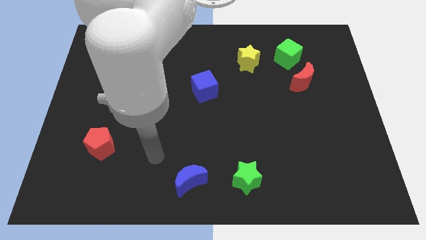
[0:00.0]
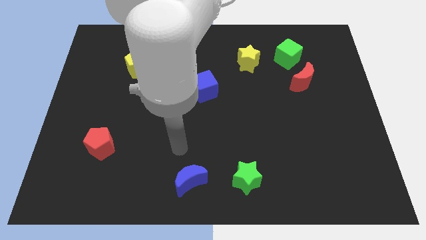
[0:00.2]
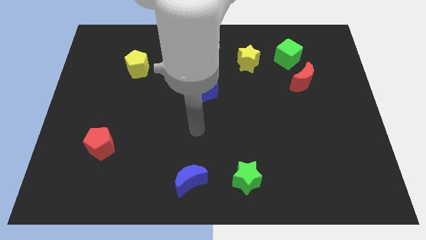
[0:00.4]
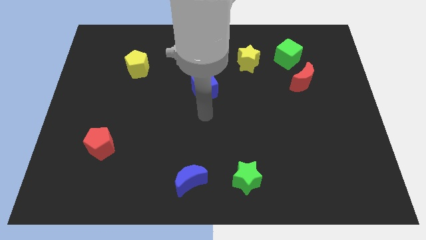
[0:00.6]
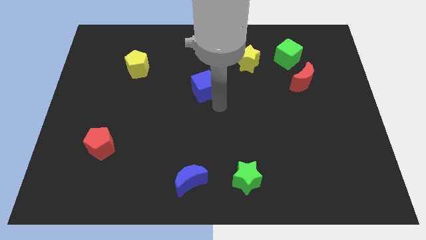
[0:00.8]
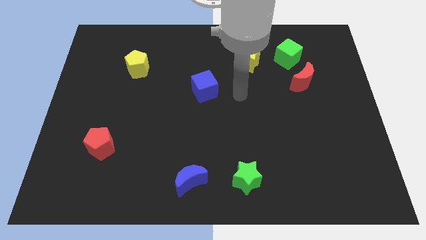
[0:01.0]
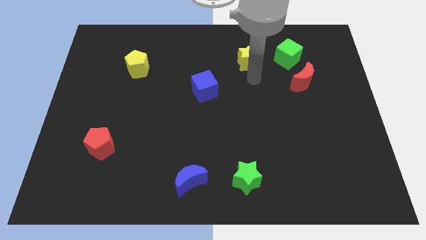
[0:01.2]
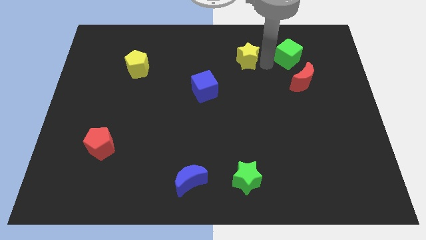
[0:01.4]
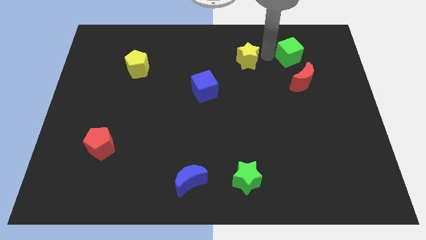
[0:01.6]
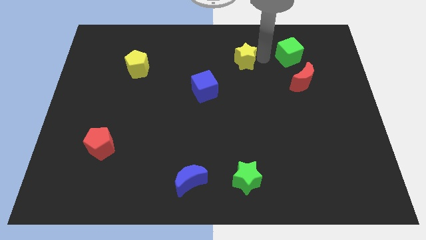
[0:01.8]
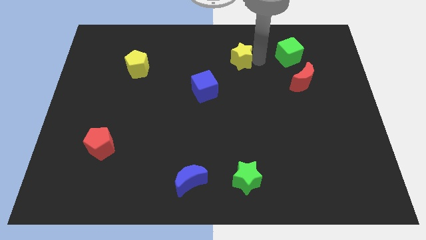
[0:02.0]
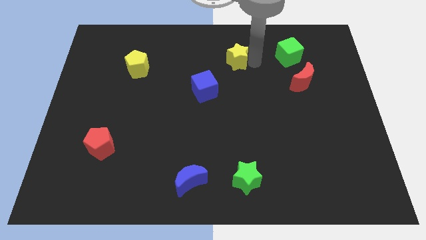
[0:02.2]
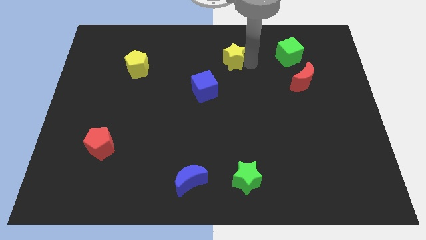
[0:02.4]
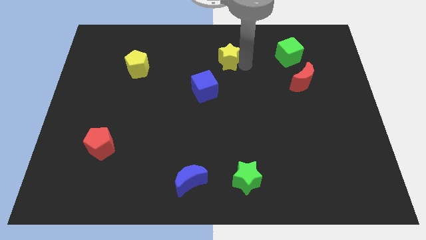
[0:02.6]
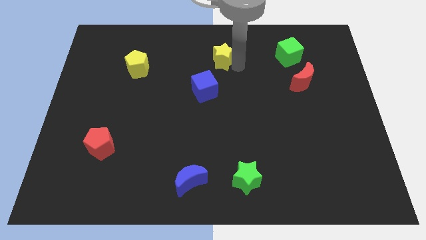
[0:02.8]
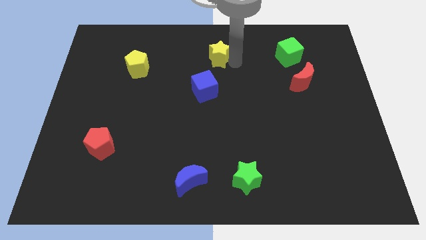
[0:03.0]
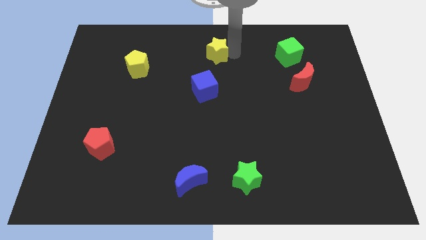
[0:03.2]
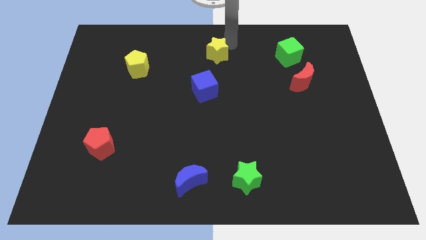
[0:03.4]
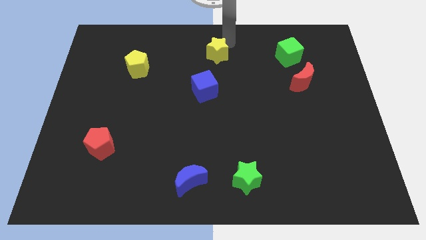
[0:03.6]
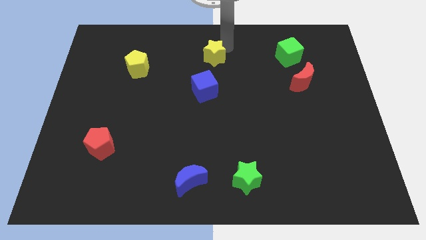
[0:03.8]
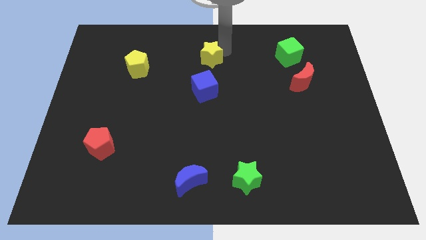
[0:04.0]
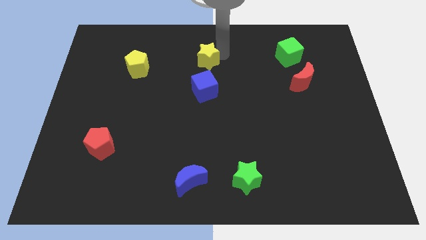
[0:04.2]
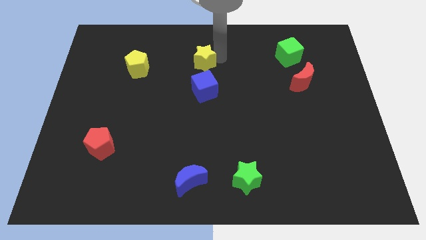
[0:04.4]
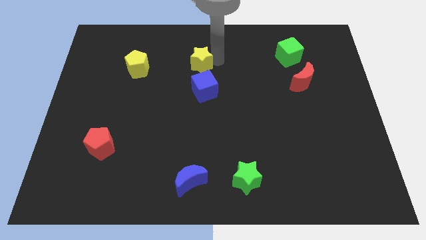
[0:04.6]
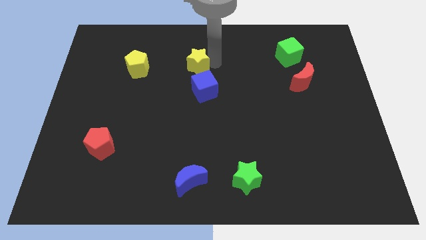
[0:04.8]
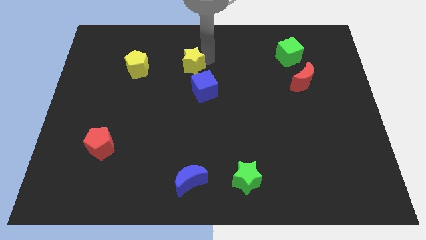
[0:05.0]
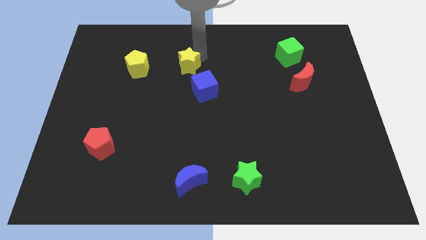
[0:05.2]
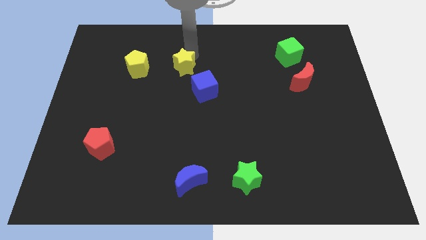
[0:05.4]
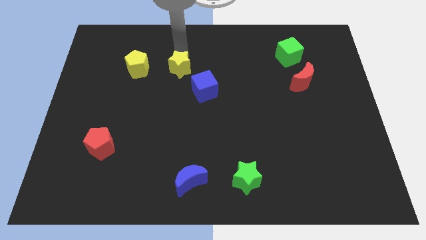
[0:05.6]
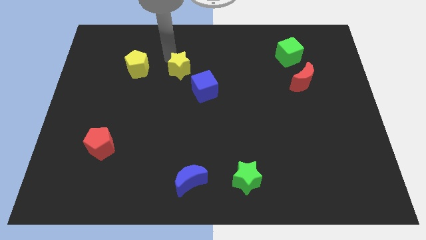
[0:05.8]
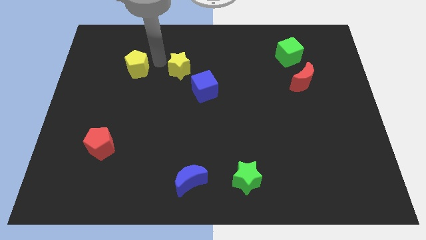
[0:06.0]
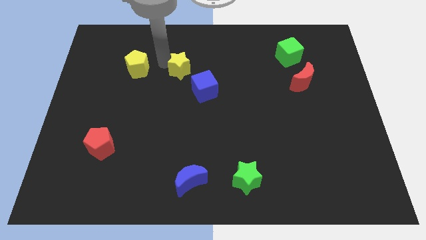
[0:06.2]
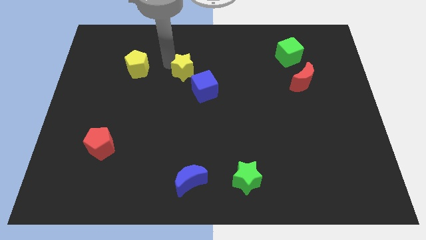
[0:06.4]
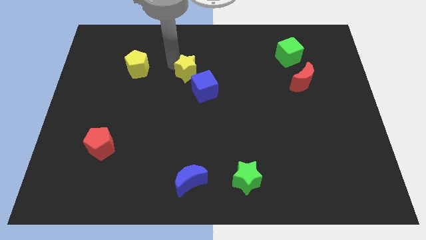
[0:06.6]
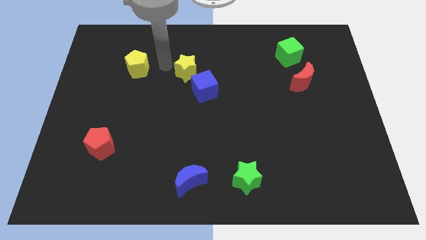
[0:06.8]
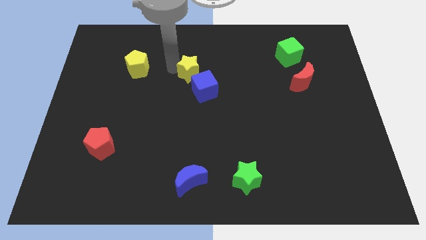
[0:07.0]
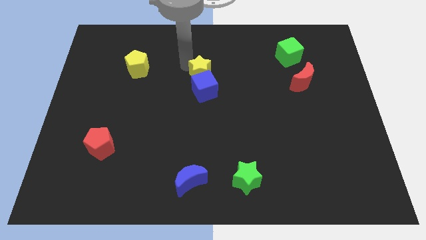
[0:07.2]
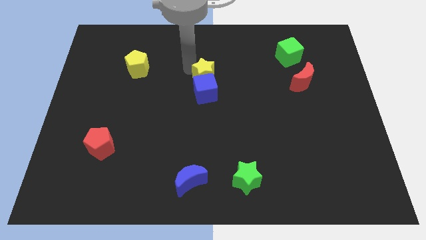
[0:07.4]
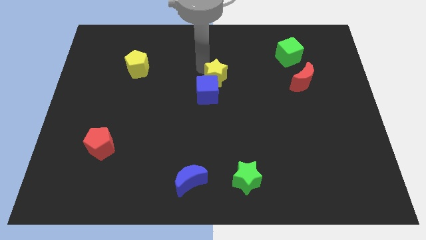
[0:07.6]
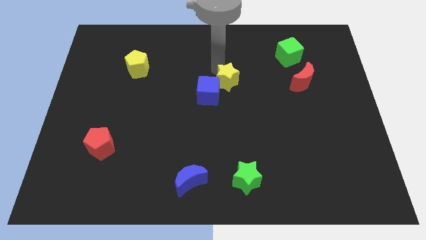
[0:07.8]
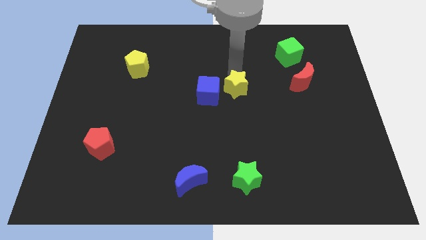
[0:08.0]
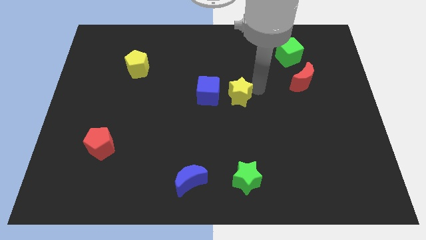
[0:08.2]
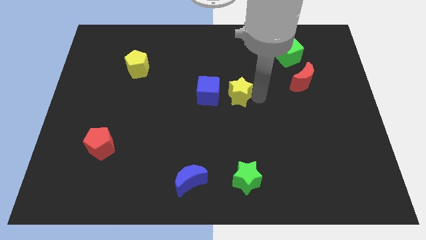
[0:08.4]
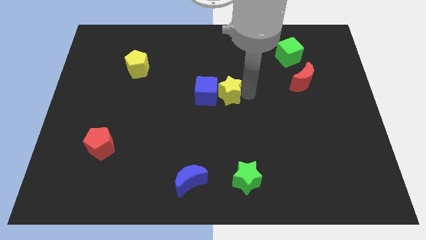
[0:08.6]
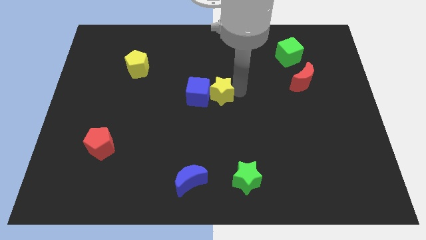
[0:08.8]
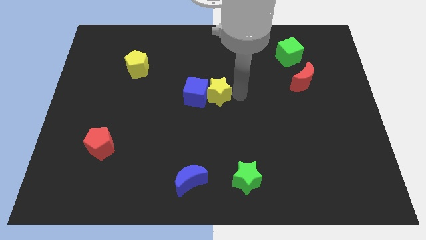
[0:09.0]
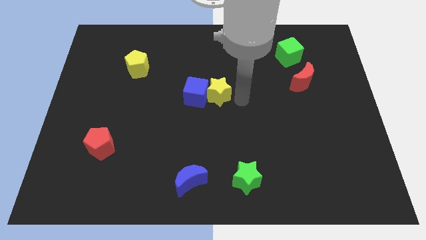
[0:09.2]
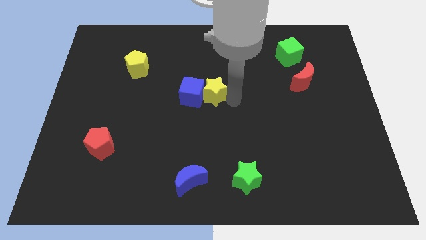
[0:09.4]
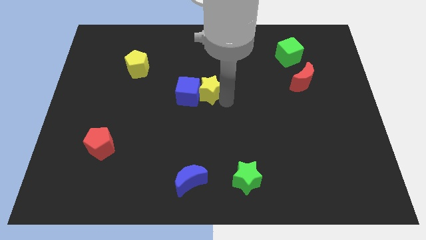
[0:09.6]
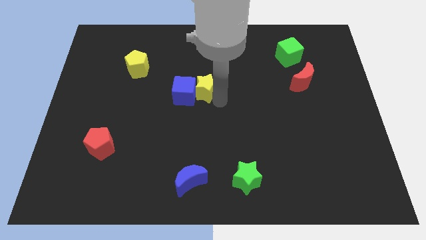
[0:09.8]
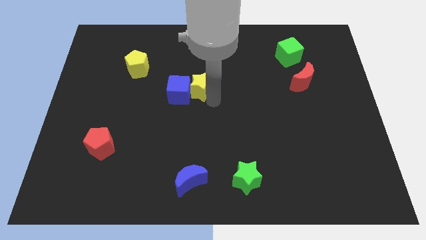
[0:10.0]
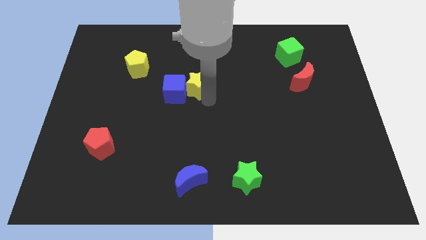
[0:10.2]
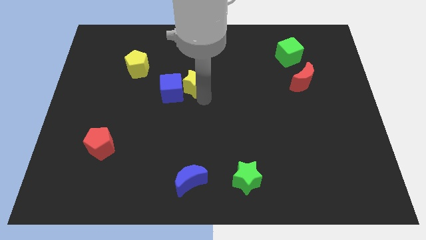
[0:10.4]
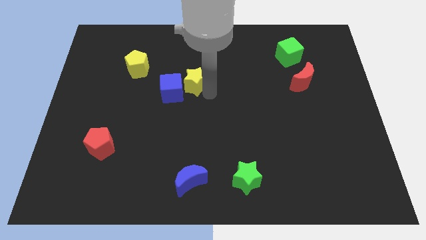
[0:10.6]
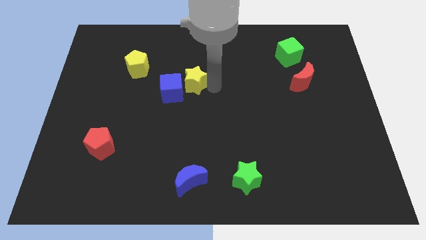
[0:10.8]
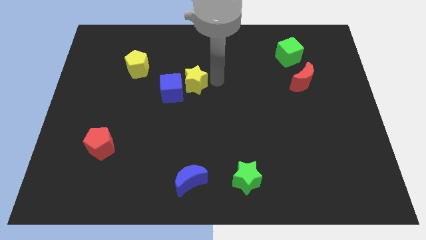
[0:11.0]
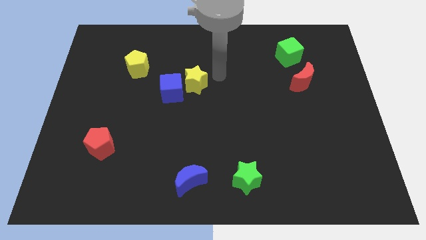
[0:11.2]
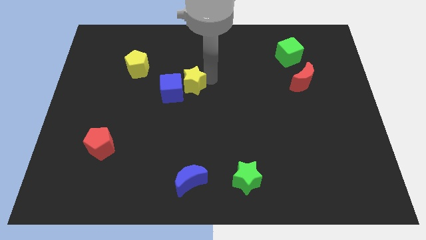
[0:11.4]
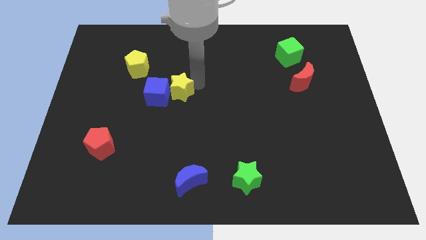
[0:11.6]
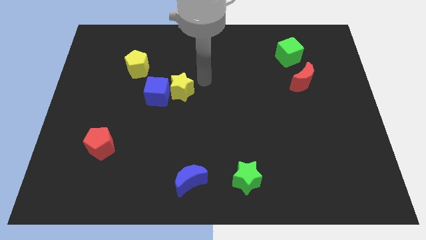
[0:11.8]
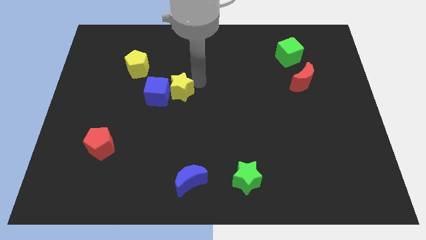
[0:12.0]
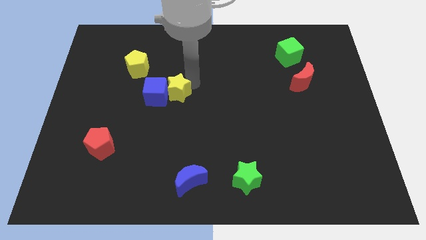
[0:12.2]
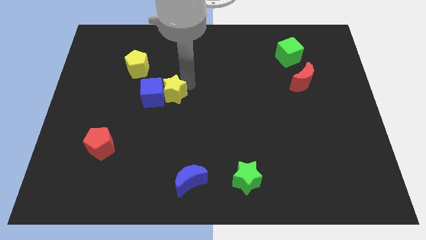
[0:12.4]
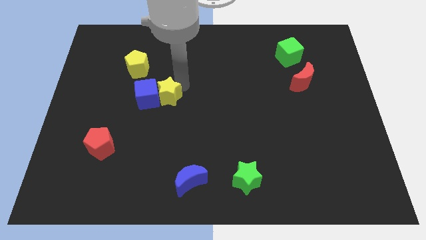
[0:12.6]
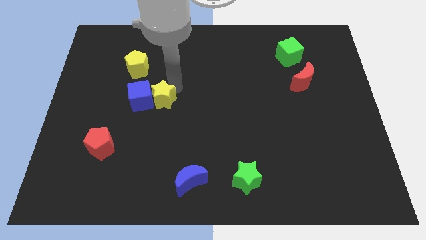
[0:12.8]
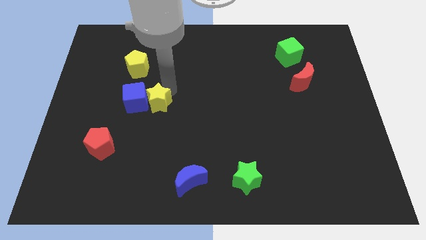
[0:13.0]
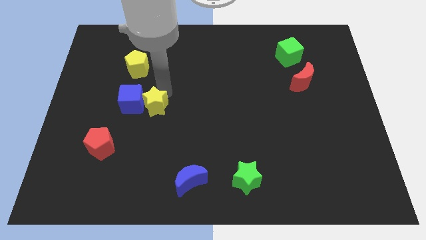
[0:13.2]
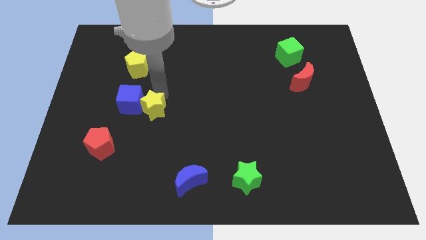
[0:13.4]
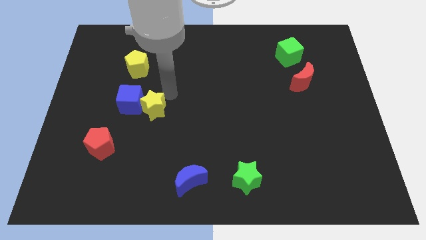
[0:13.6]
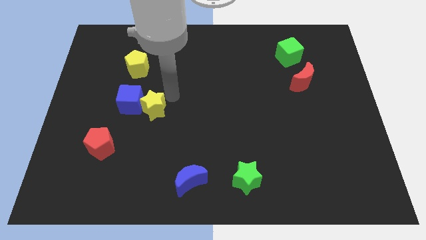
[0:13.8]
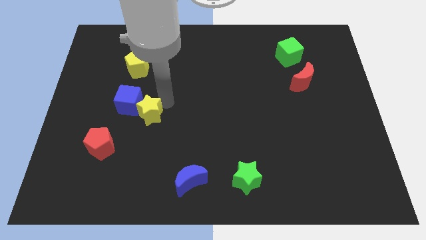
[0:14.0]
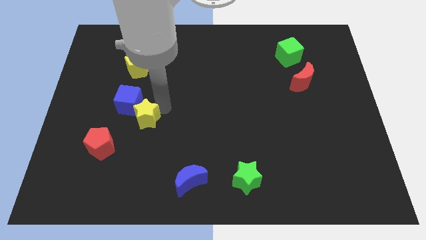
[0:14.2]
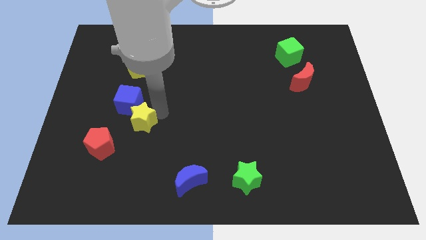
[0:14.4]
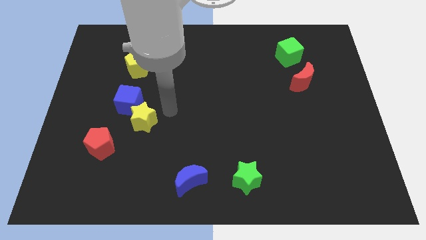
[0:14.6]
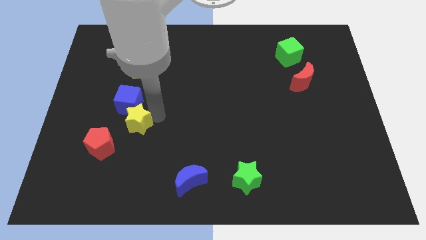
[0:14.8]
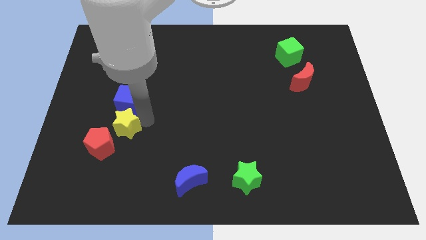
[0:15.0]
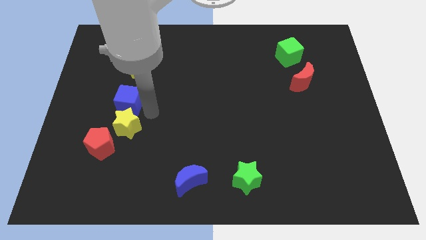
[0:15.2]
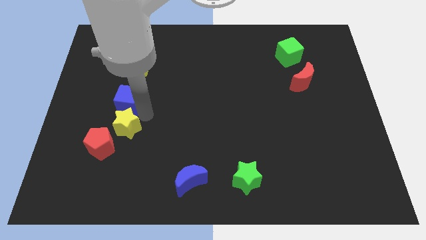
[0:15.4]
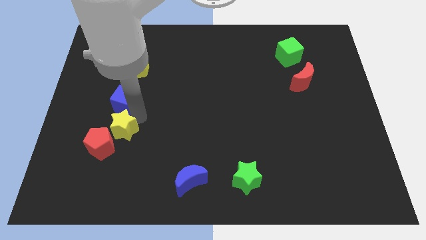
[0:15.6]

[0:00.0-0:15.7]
move the yellow star towards the red pentagon
